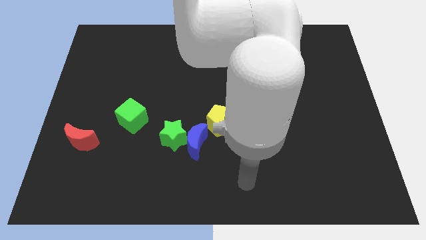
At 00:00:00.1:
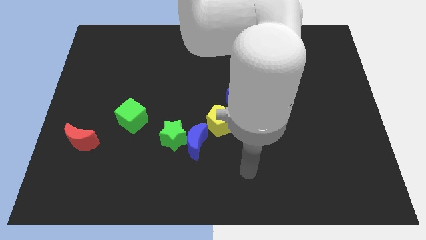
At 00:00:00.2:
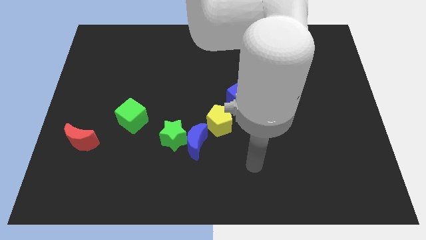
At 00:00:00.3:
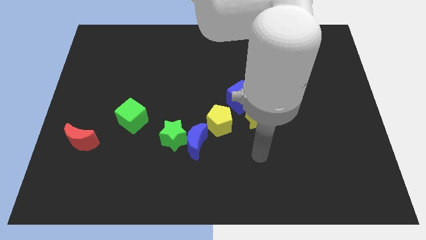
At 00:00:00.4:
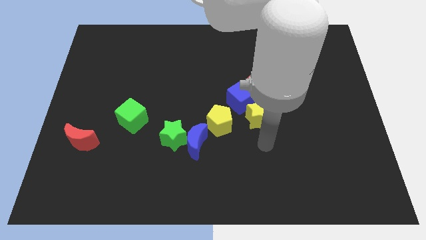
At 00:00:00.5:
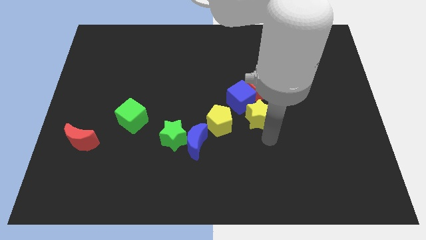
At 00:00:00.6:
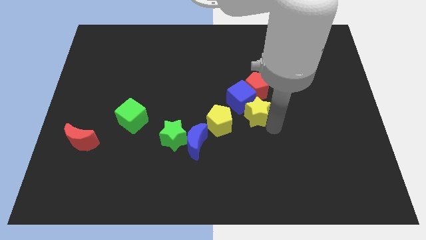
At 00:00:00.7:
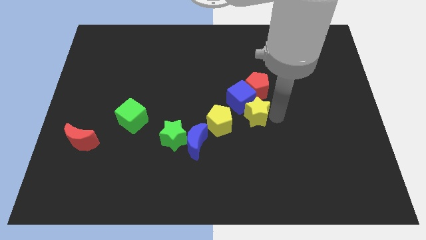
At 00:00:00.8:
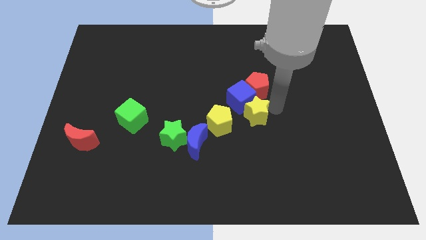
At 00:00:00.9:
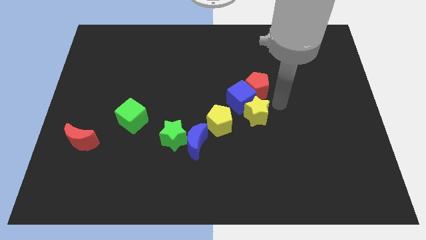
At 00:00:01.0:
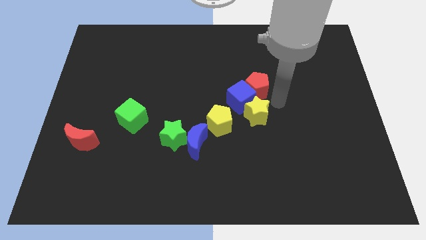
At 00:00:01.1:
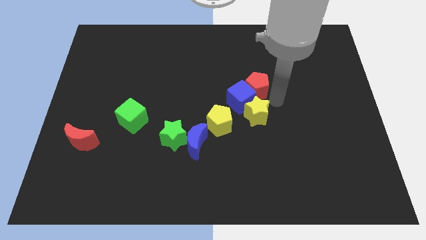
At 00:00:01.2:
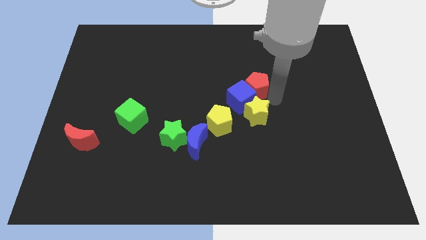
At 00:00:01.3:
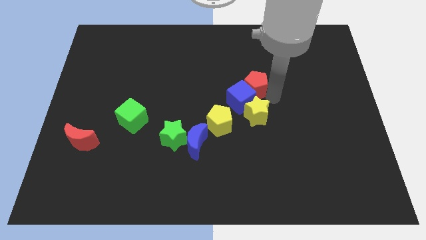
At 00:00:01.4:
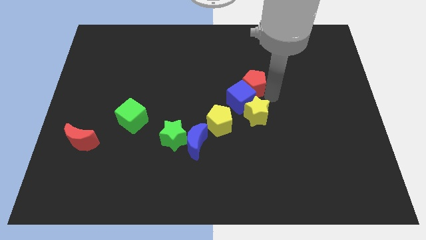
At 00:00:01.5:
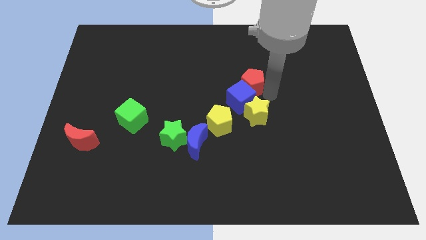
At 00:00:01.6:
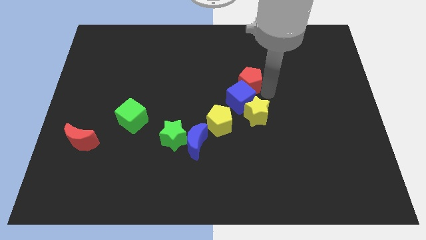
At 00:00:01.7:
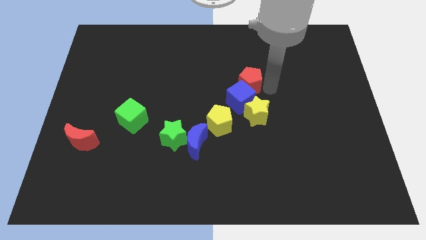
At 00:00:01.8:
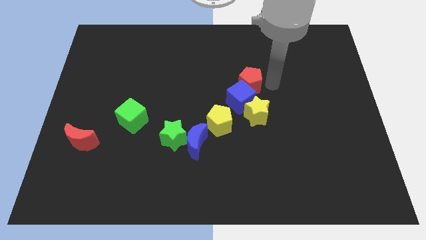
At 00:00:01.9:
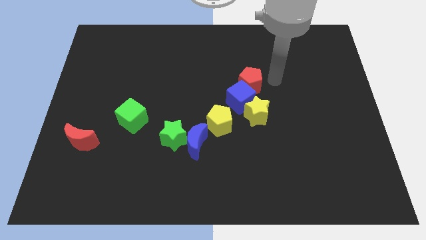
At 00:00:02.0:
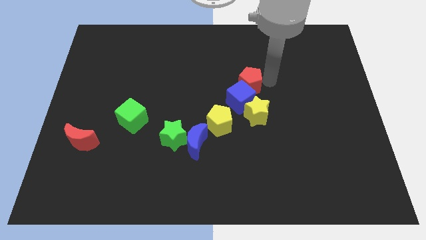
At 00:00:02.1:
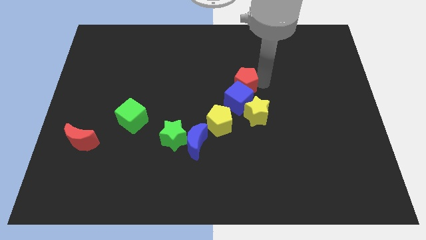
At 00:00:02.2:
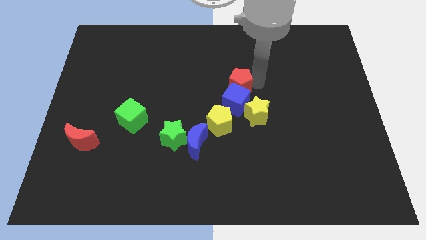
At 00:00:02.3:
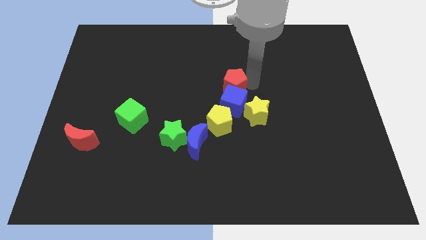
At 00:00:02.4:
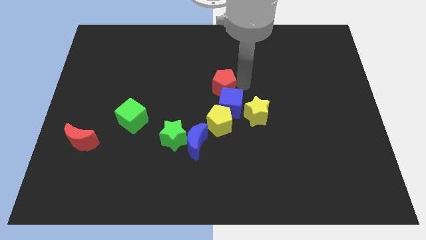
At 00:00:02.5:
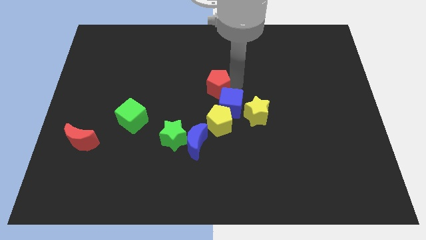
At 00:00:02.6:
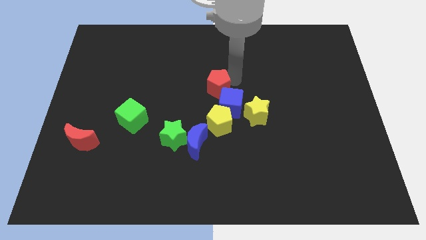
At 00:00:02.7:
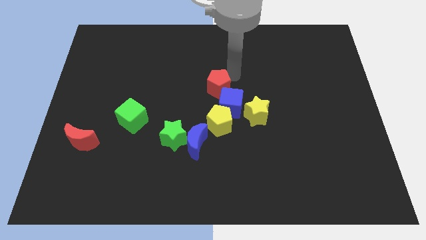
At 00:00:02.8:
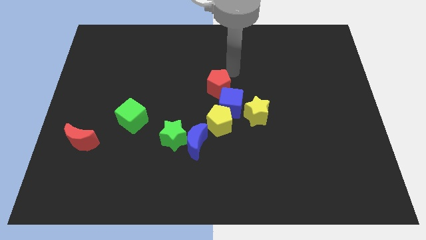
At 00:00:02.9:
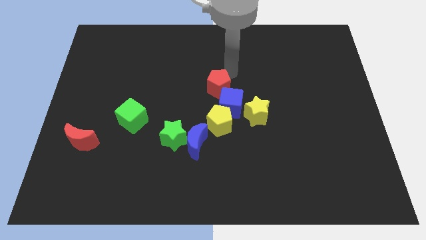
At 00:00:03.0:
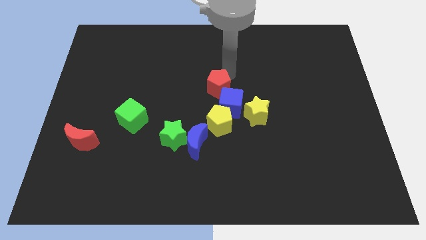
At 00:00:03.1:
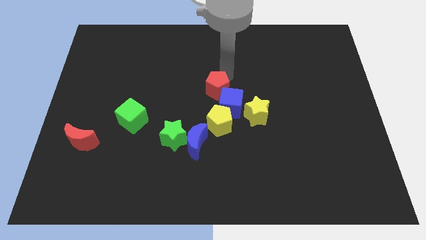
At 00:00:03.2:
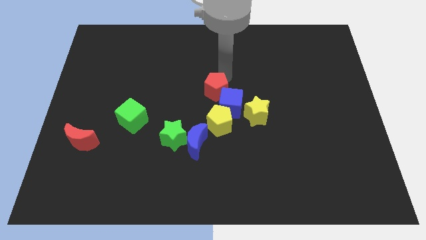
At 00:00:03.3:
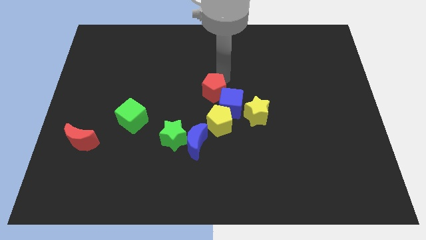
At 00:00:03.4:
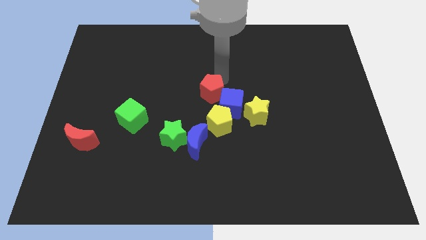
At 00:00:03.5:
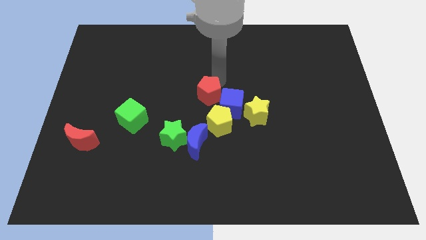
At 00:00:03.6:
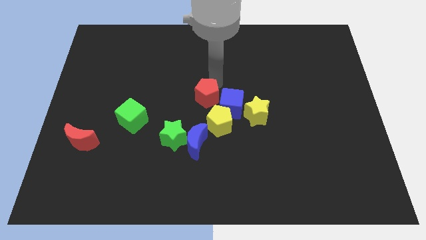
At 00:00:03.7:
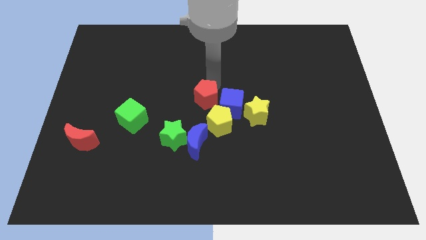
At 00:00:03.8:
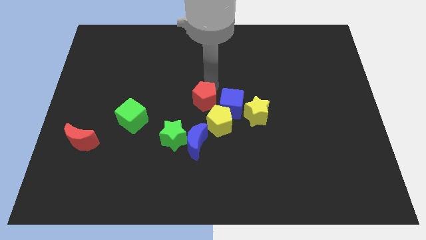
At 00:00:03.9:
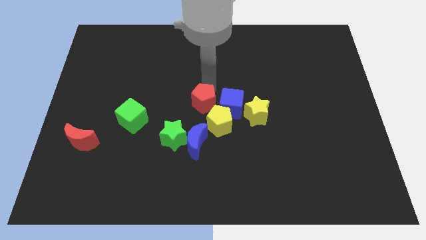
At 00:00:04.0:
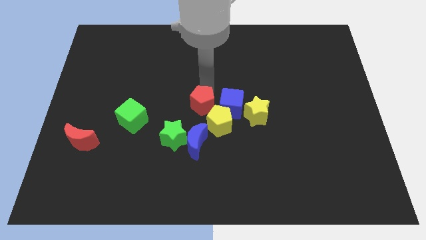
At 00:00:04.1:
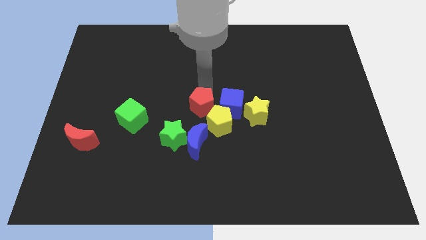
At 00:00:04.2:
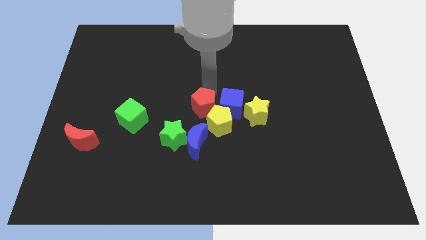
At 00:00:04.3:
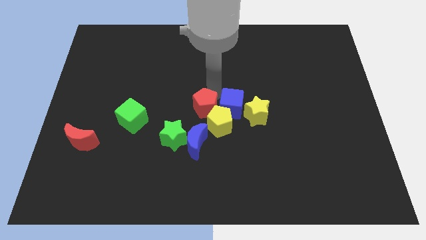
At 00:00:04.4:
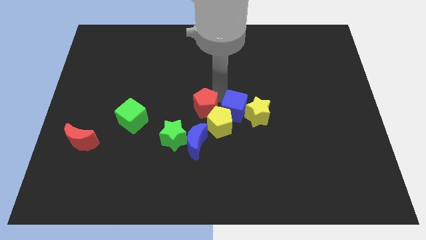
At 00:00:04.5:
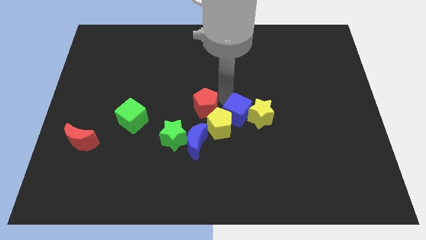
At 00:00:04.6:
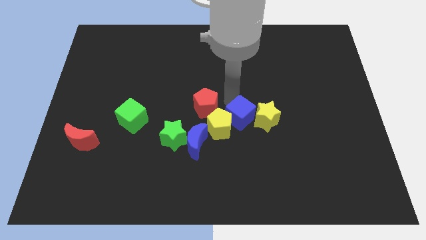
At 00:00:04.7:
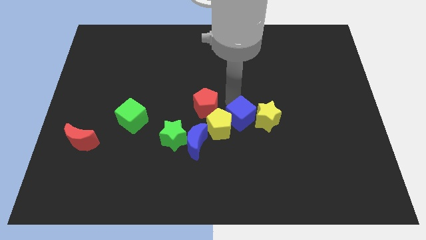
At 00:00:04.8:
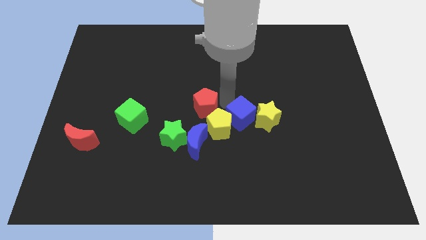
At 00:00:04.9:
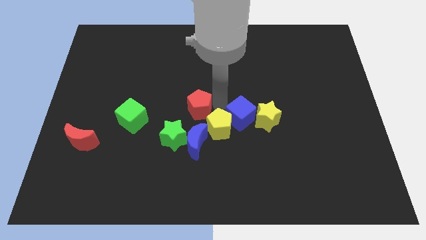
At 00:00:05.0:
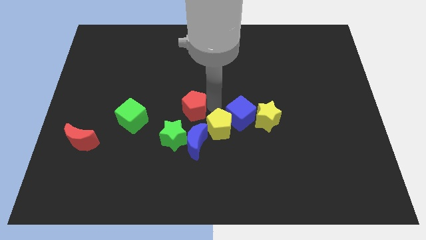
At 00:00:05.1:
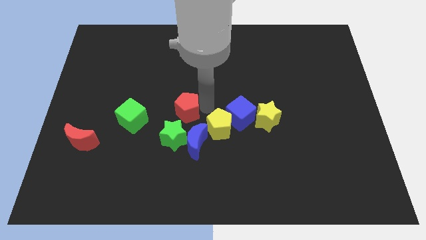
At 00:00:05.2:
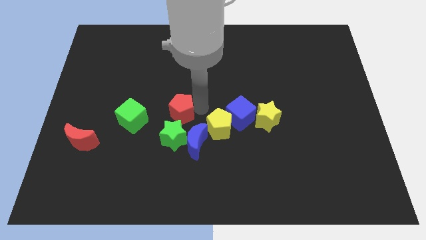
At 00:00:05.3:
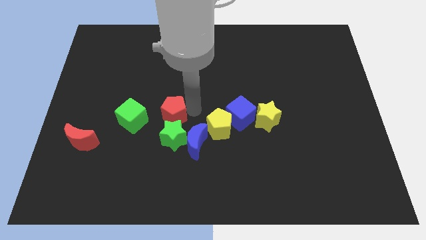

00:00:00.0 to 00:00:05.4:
push the red pentagon diagonally up and to the left of the green star

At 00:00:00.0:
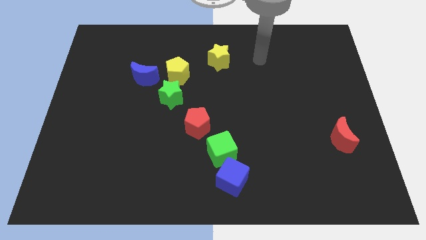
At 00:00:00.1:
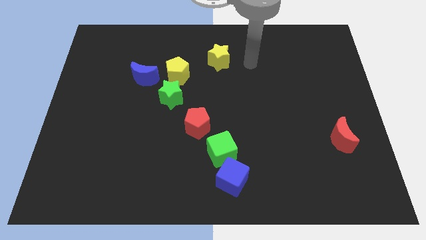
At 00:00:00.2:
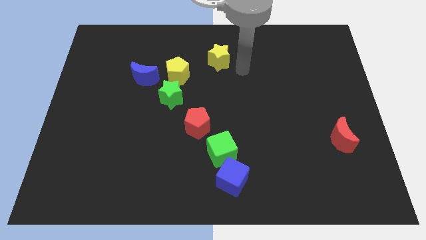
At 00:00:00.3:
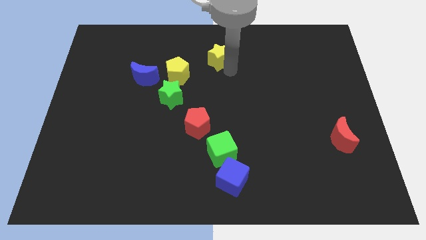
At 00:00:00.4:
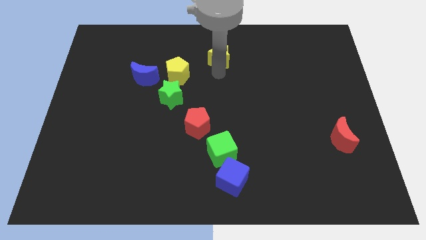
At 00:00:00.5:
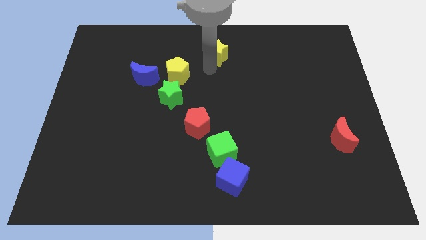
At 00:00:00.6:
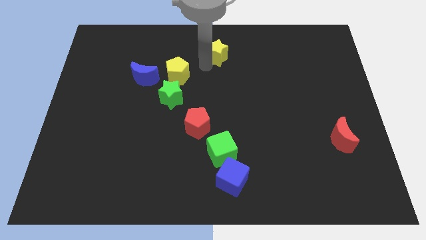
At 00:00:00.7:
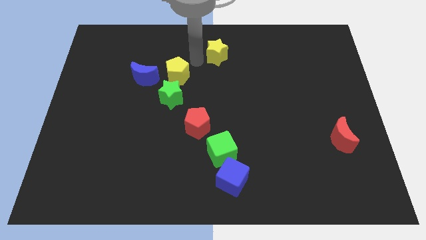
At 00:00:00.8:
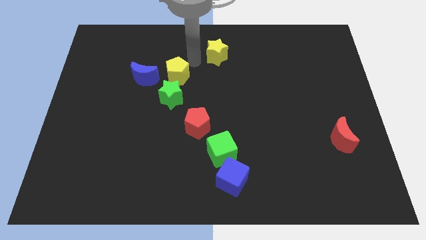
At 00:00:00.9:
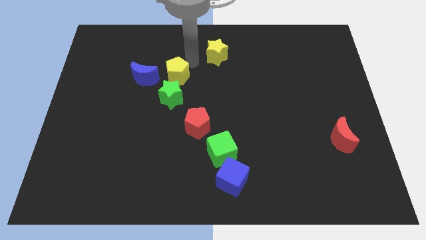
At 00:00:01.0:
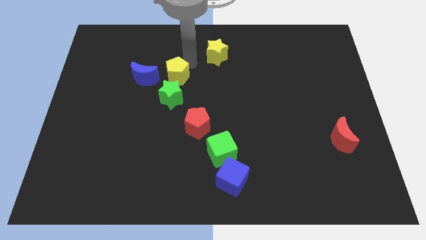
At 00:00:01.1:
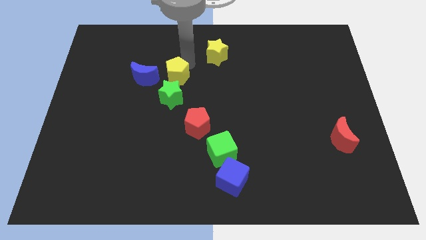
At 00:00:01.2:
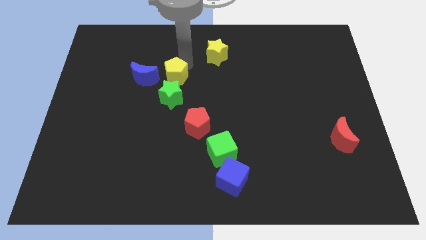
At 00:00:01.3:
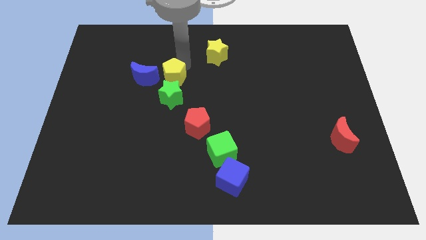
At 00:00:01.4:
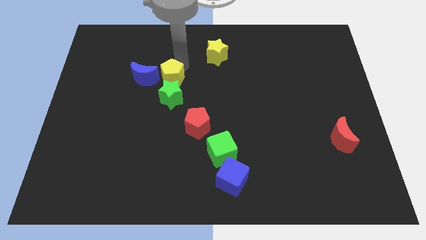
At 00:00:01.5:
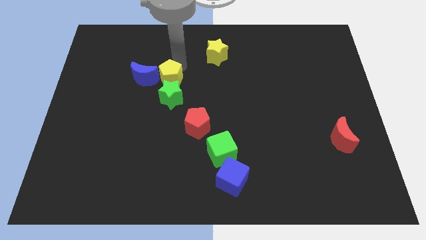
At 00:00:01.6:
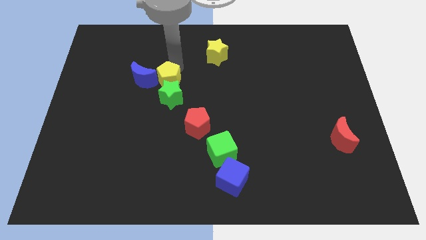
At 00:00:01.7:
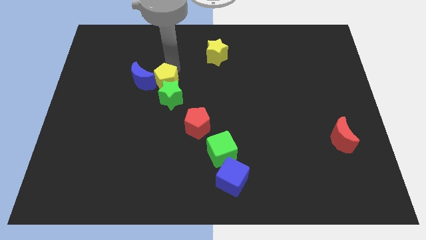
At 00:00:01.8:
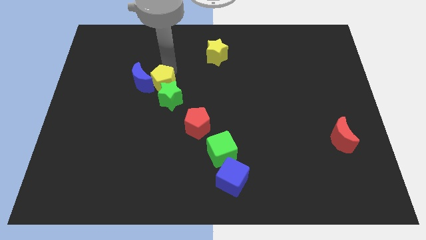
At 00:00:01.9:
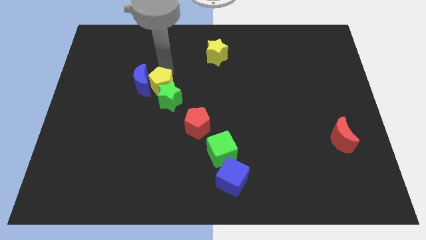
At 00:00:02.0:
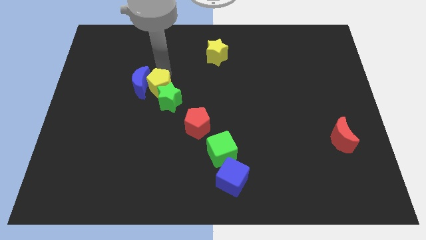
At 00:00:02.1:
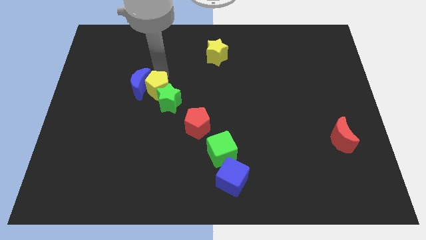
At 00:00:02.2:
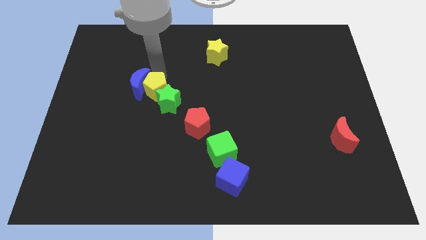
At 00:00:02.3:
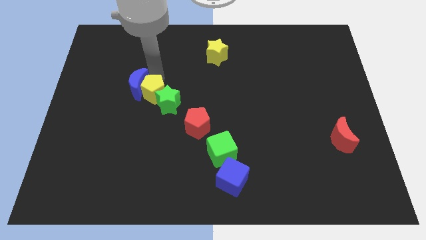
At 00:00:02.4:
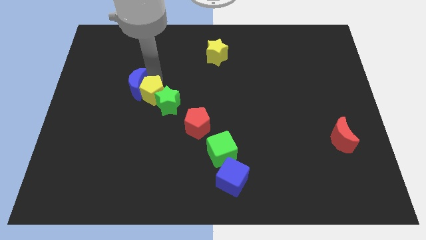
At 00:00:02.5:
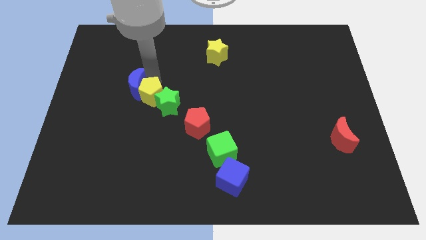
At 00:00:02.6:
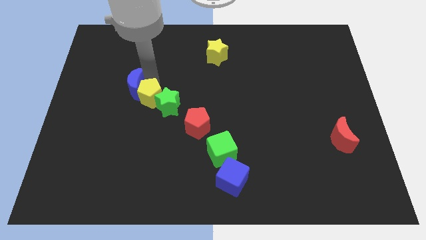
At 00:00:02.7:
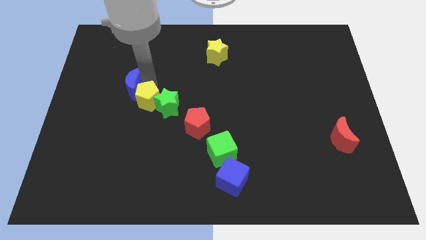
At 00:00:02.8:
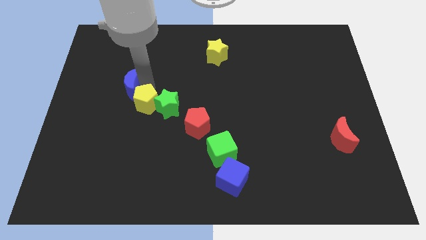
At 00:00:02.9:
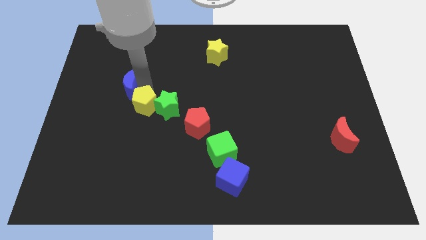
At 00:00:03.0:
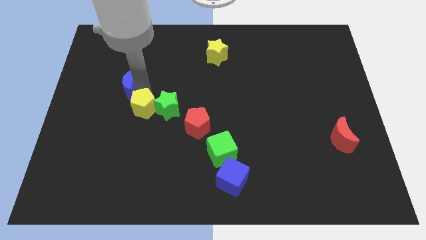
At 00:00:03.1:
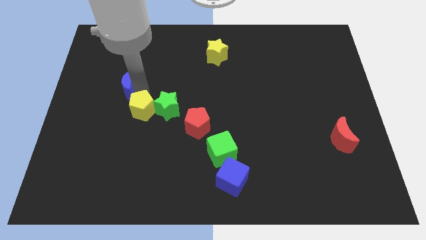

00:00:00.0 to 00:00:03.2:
slide the yellow pentagon to the left side of the red pentagon
